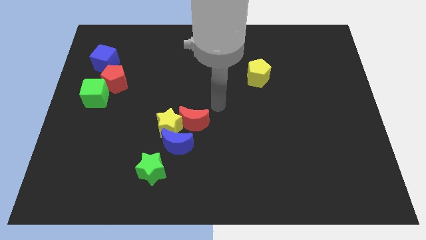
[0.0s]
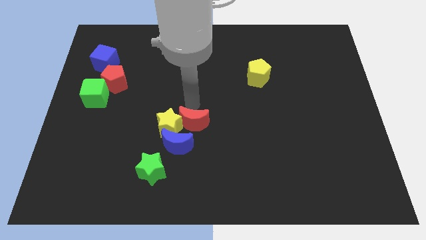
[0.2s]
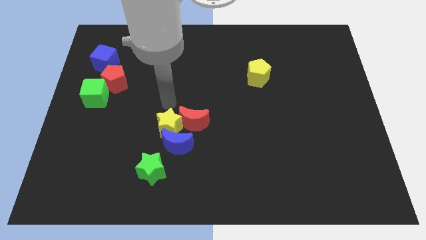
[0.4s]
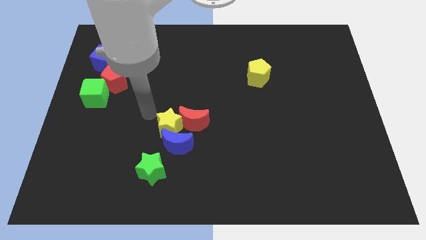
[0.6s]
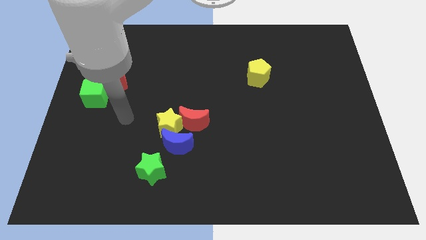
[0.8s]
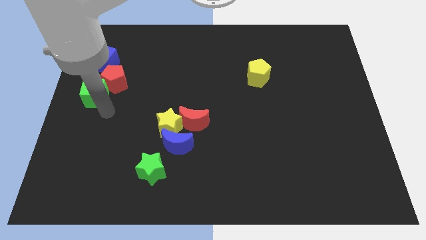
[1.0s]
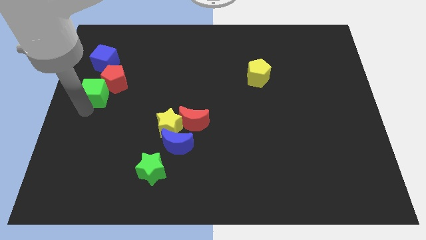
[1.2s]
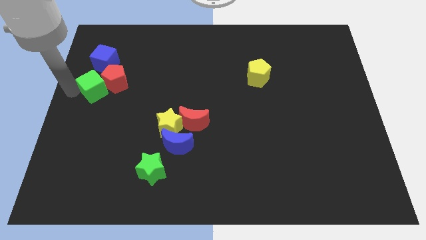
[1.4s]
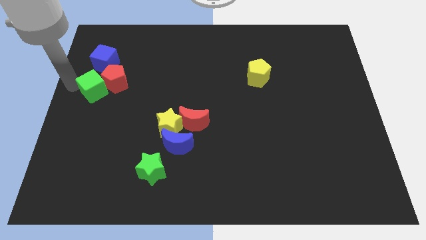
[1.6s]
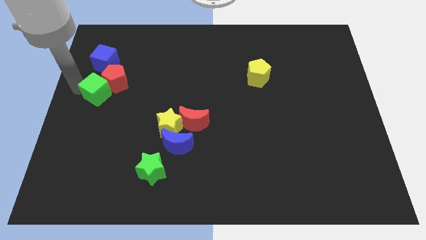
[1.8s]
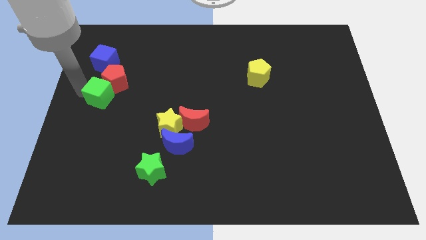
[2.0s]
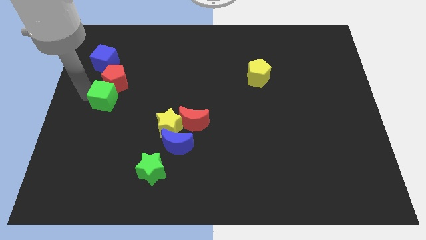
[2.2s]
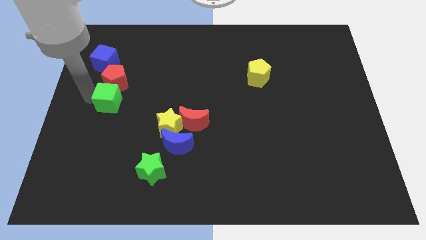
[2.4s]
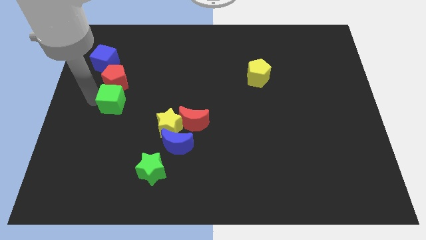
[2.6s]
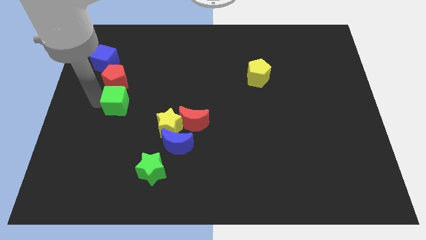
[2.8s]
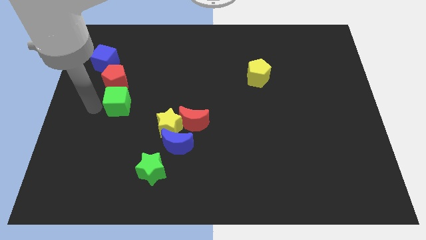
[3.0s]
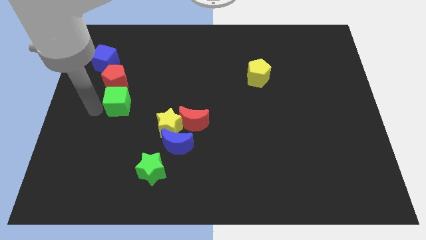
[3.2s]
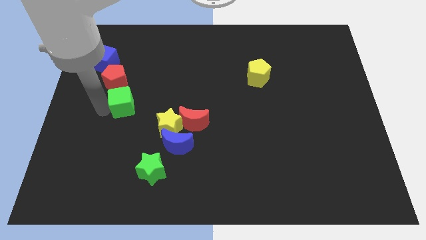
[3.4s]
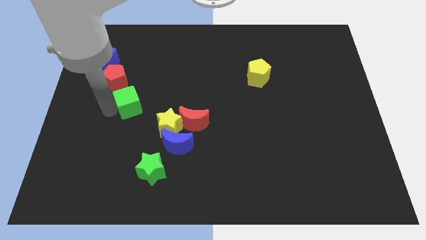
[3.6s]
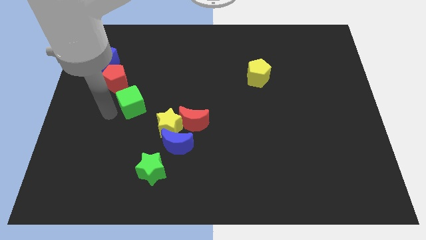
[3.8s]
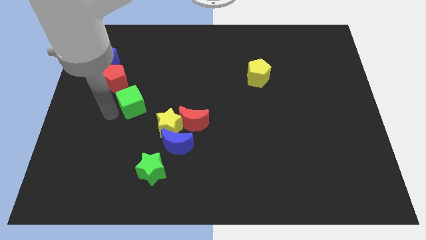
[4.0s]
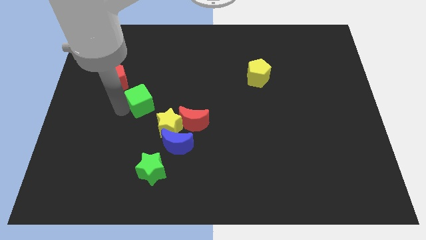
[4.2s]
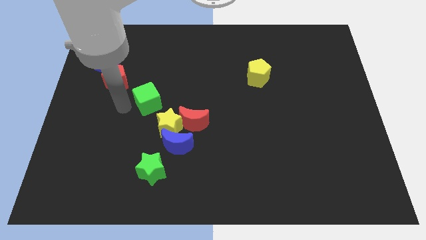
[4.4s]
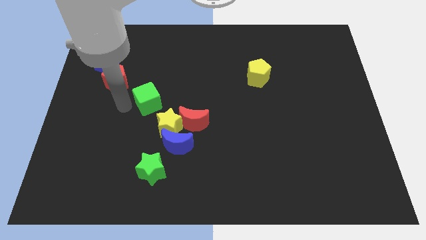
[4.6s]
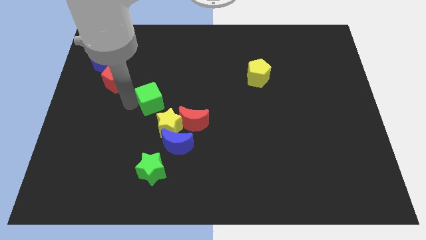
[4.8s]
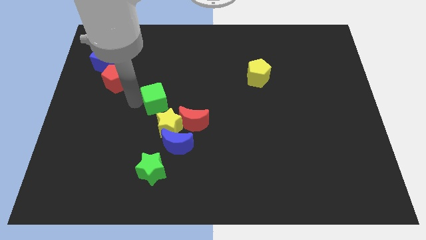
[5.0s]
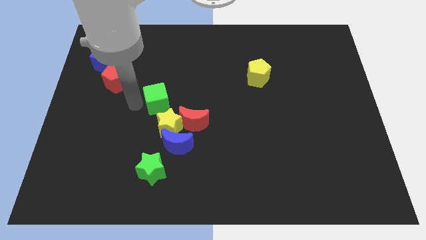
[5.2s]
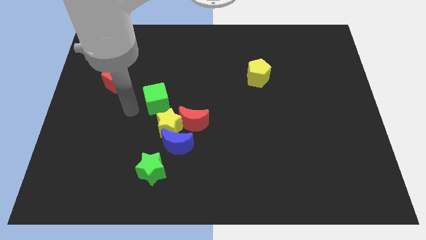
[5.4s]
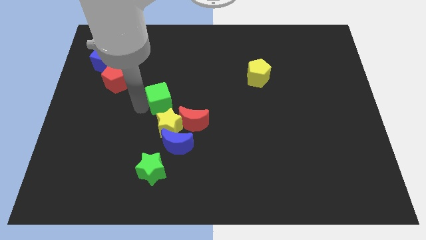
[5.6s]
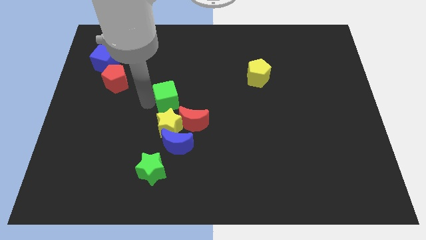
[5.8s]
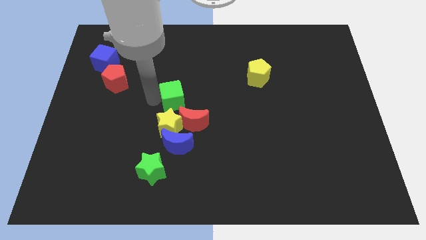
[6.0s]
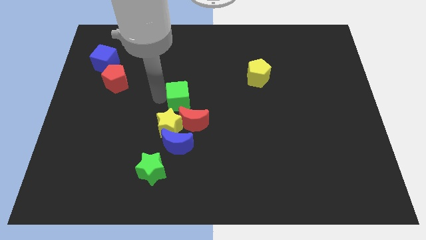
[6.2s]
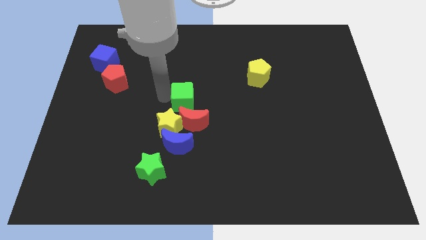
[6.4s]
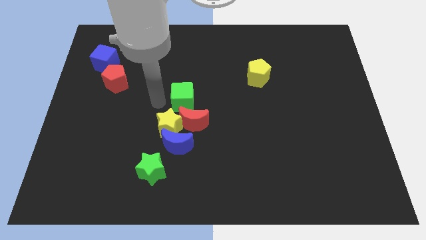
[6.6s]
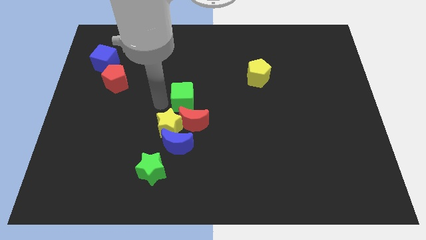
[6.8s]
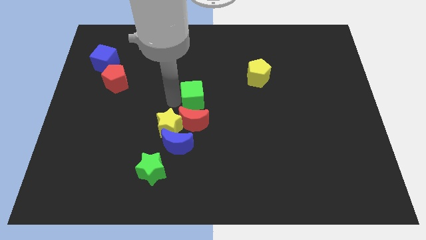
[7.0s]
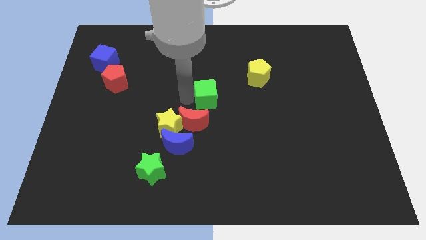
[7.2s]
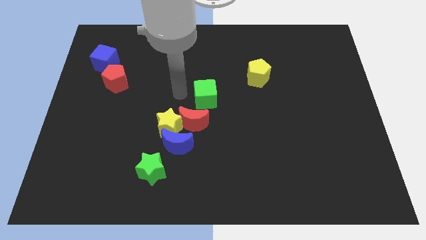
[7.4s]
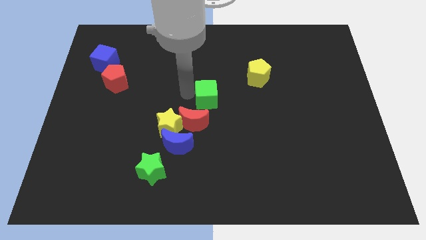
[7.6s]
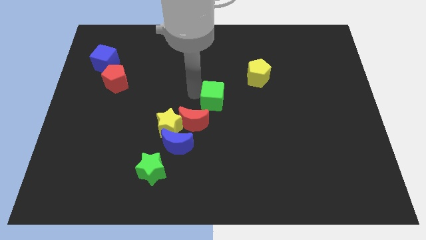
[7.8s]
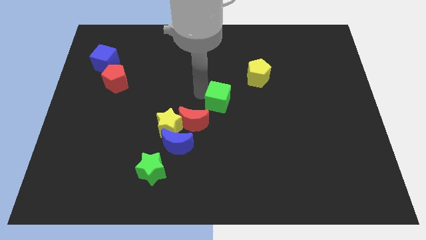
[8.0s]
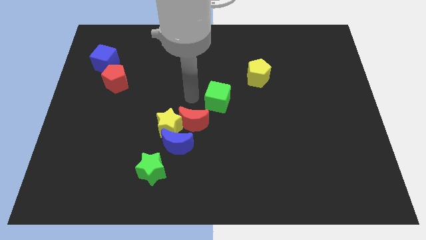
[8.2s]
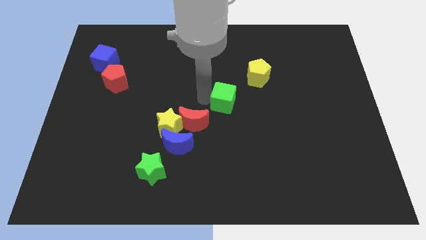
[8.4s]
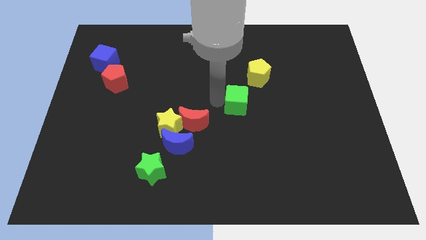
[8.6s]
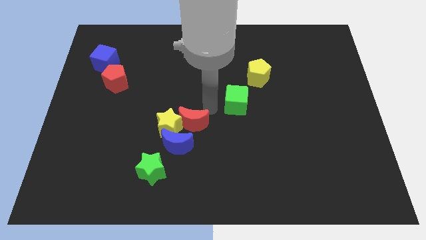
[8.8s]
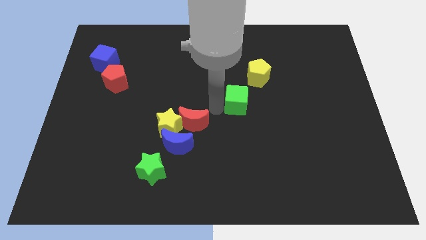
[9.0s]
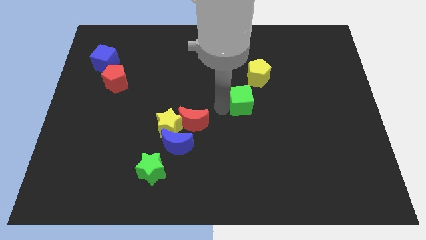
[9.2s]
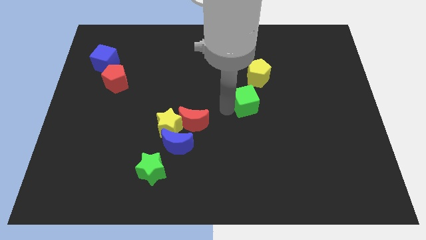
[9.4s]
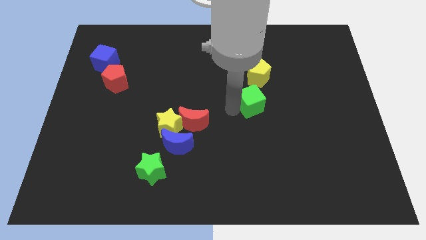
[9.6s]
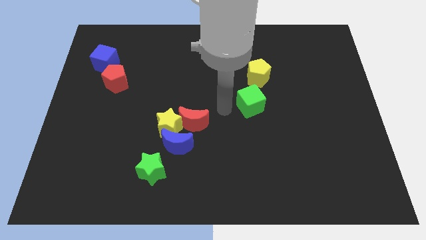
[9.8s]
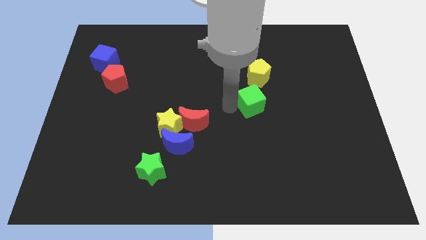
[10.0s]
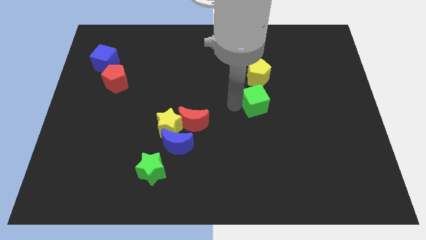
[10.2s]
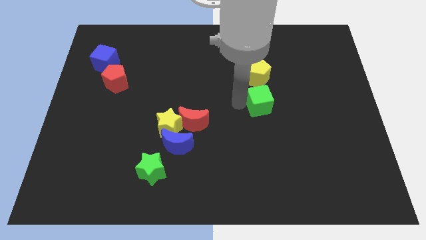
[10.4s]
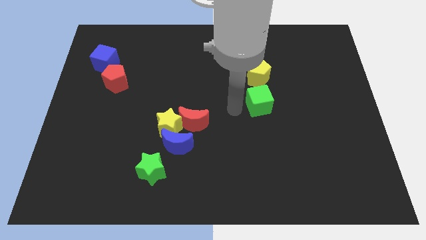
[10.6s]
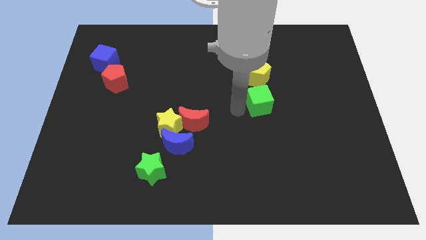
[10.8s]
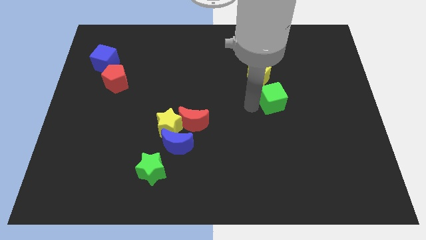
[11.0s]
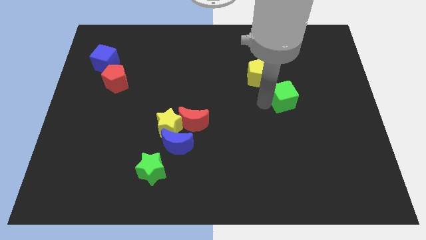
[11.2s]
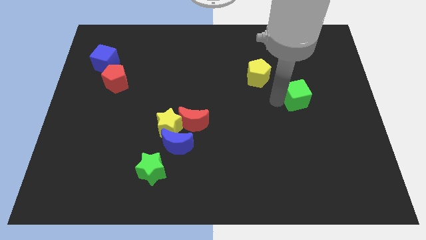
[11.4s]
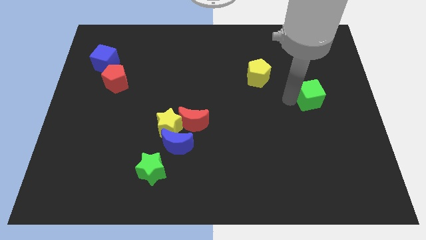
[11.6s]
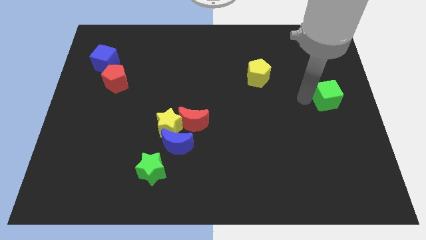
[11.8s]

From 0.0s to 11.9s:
push the green cube to the right side of the board

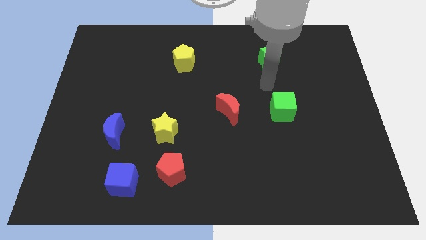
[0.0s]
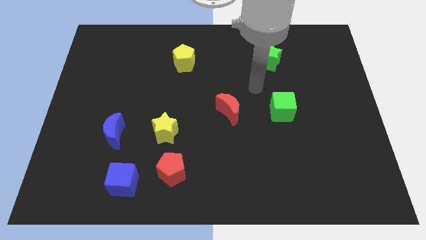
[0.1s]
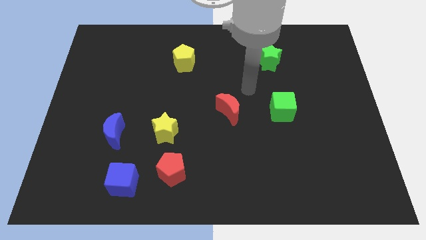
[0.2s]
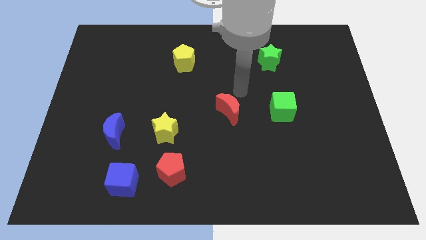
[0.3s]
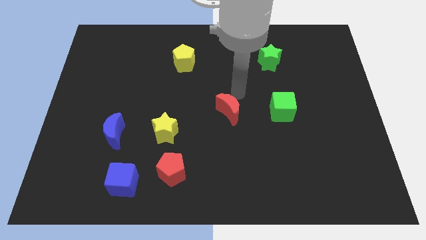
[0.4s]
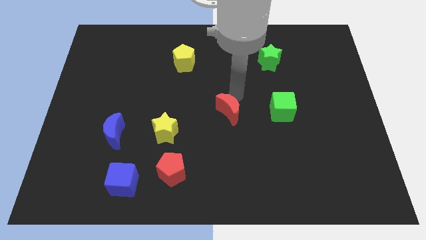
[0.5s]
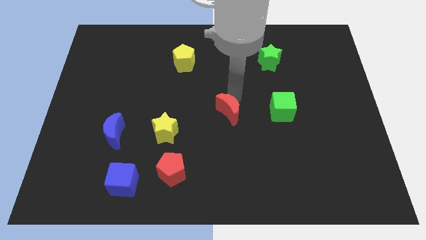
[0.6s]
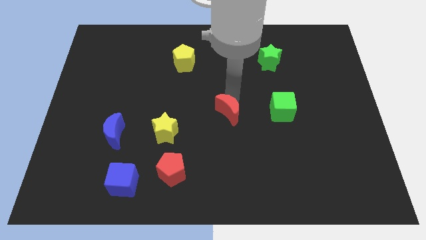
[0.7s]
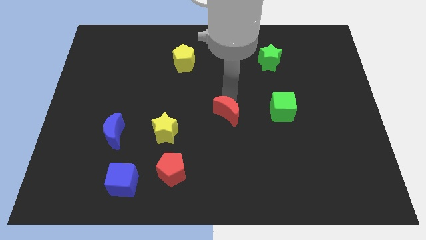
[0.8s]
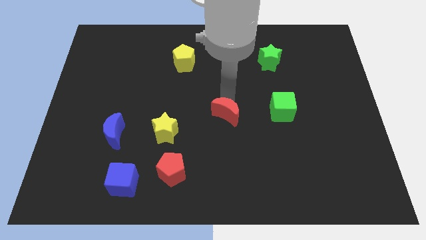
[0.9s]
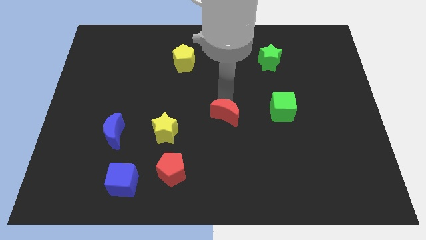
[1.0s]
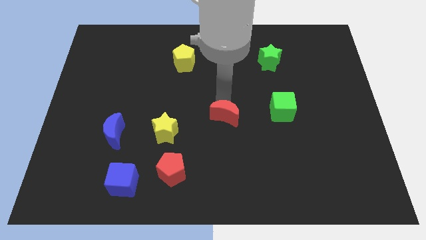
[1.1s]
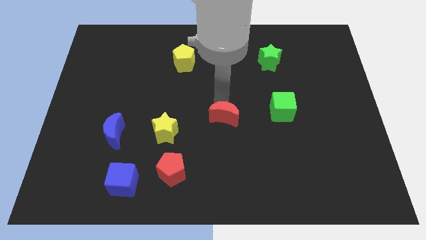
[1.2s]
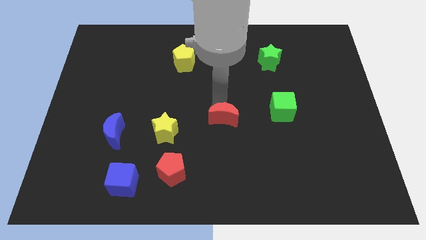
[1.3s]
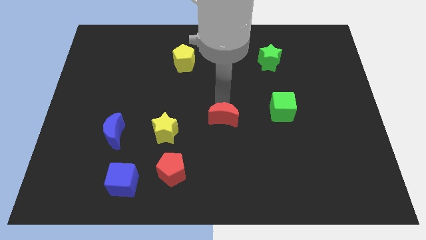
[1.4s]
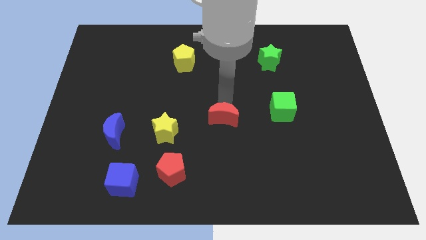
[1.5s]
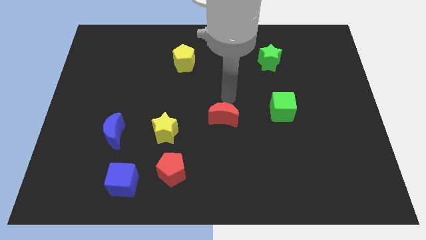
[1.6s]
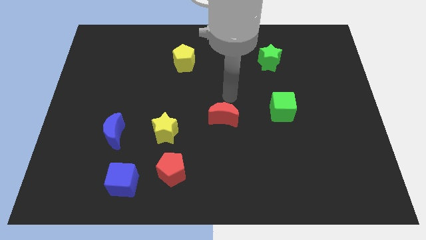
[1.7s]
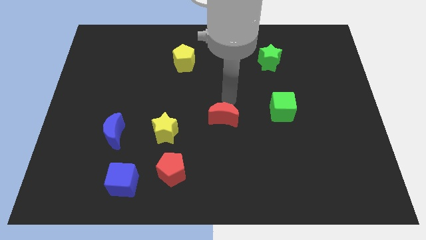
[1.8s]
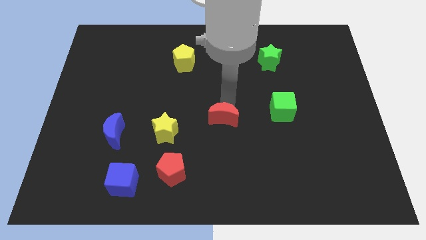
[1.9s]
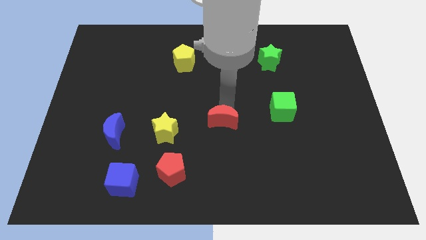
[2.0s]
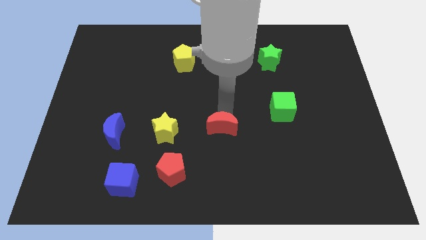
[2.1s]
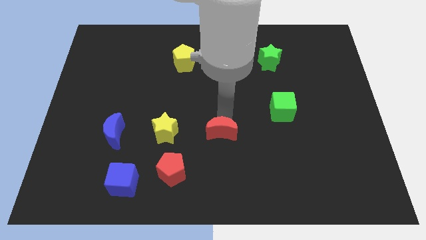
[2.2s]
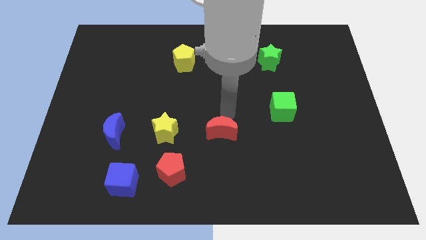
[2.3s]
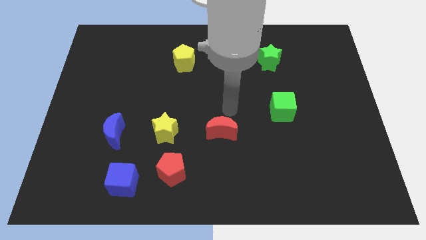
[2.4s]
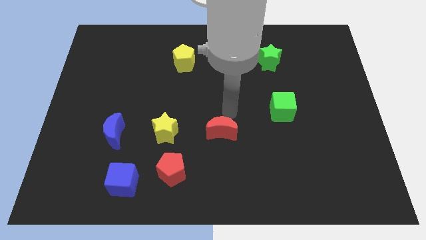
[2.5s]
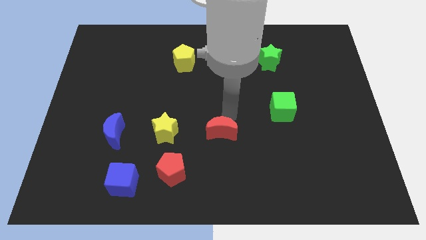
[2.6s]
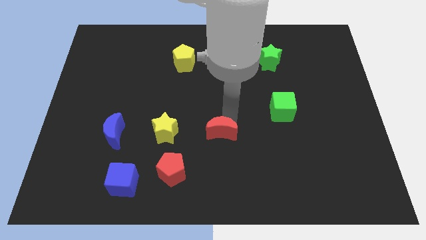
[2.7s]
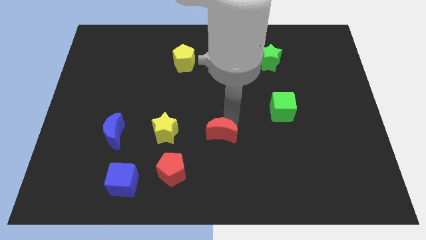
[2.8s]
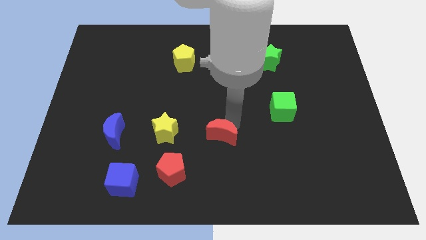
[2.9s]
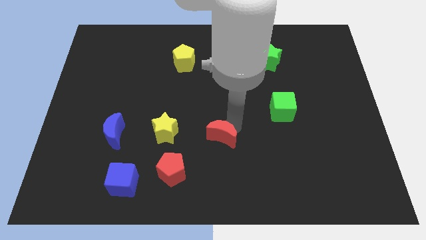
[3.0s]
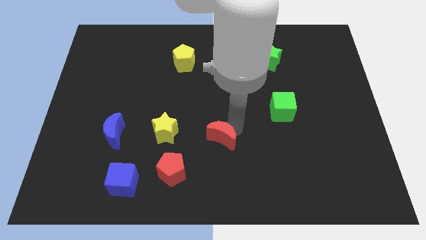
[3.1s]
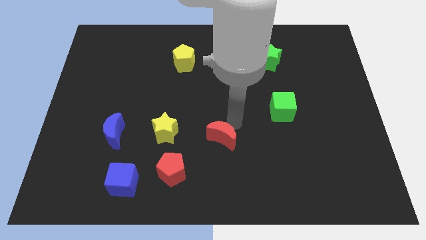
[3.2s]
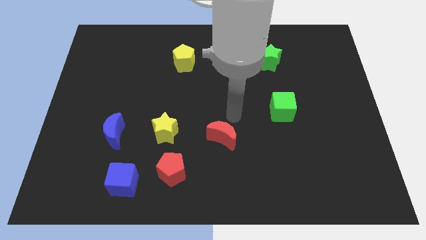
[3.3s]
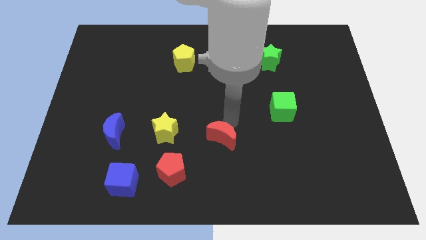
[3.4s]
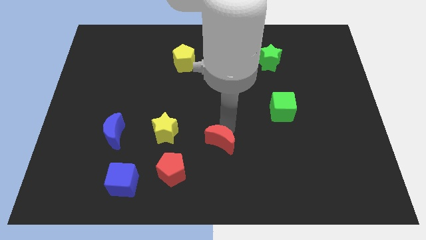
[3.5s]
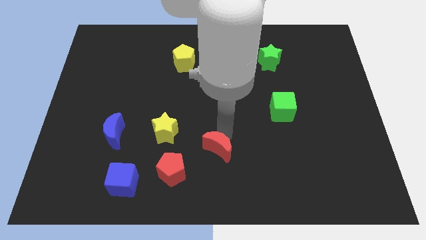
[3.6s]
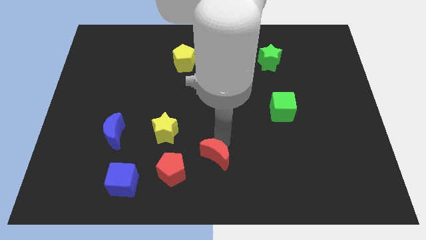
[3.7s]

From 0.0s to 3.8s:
put the red moon to the bottom side
